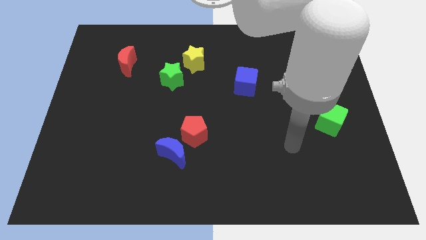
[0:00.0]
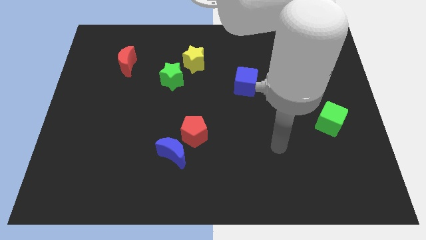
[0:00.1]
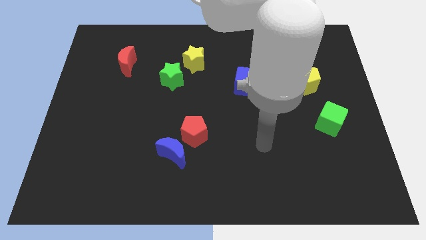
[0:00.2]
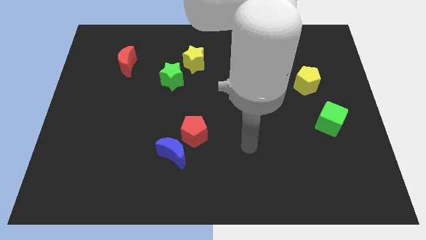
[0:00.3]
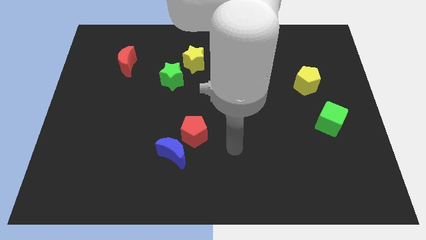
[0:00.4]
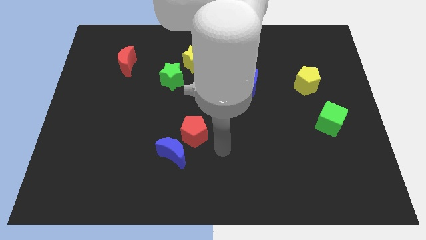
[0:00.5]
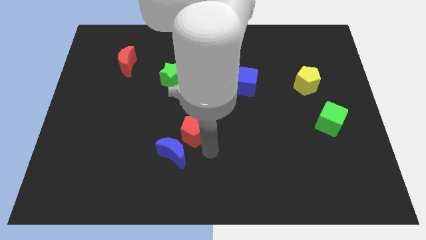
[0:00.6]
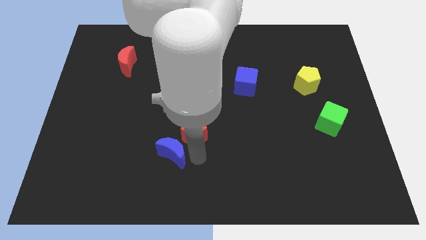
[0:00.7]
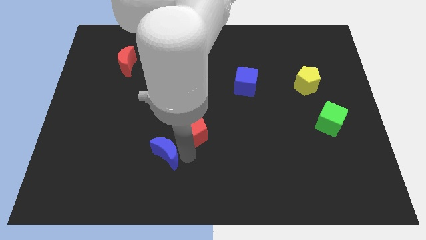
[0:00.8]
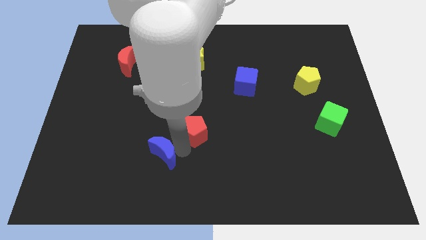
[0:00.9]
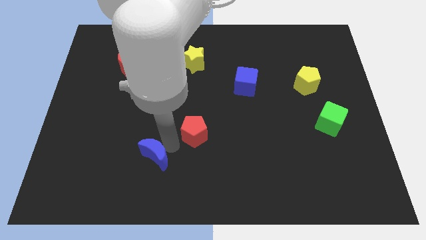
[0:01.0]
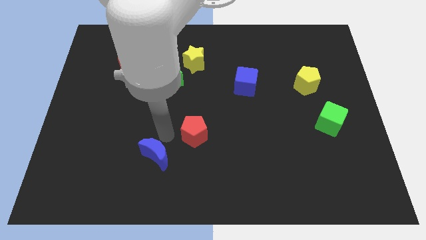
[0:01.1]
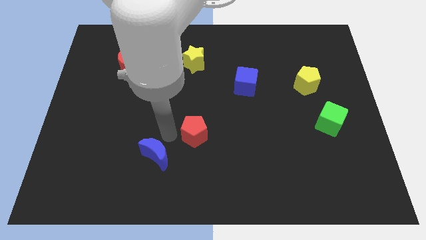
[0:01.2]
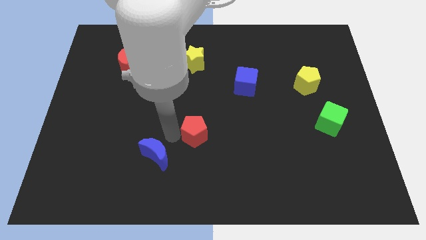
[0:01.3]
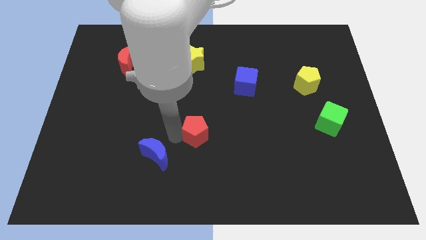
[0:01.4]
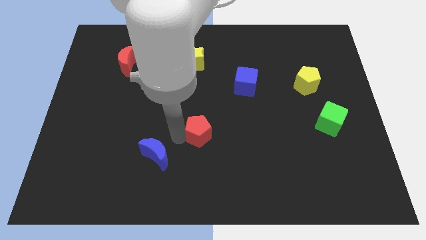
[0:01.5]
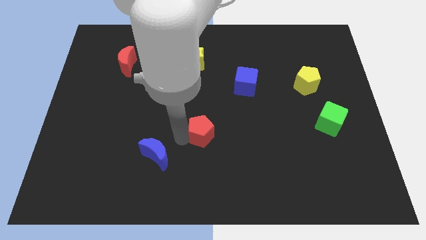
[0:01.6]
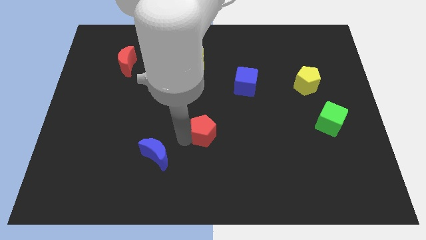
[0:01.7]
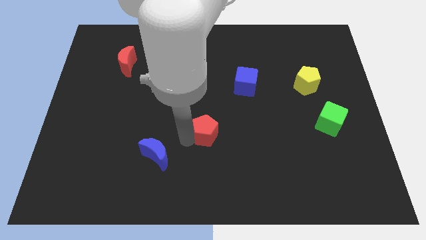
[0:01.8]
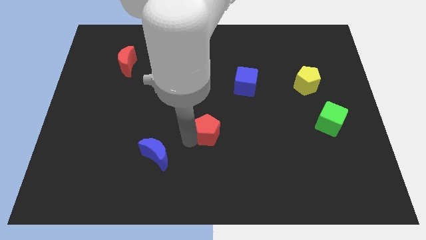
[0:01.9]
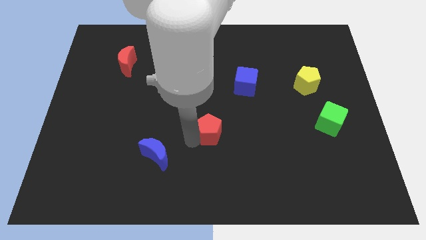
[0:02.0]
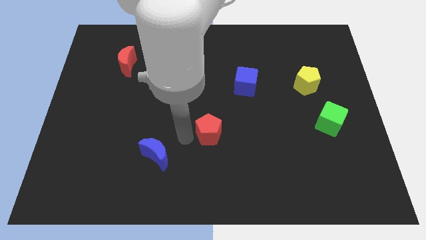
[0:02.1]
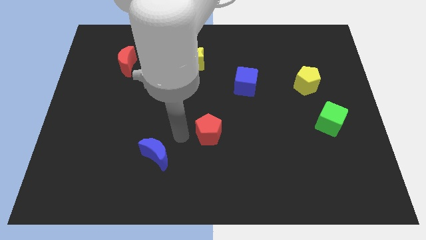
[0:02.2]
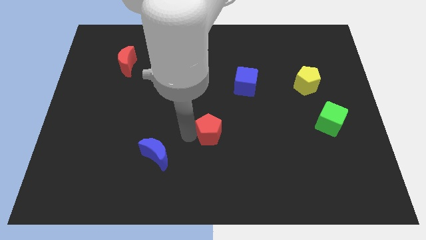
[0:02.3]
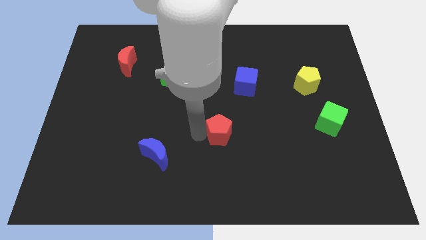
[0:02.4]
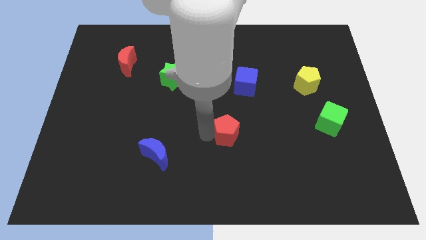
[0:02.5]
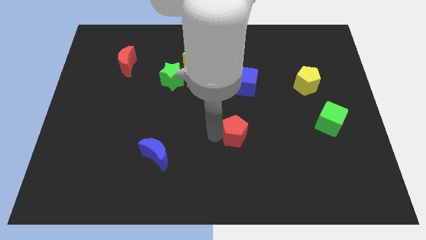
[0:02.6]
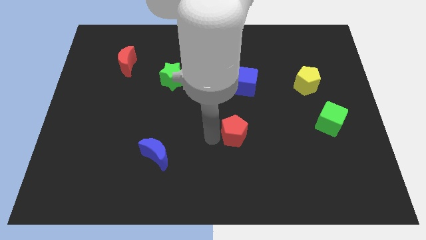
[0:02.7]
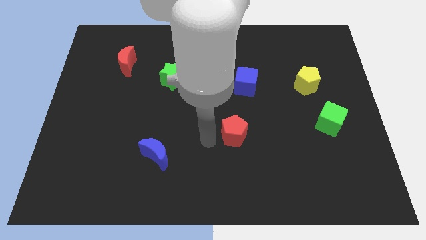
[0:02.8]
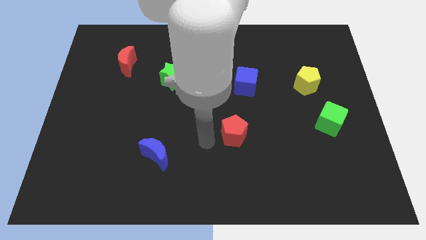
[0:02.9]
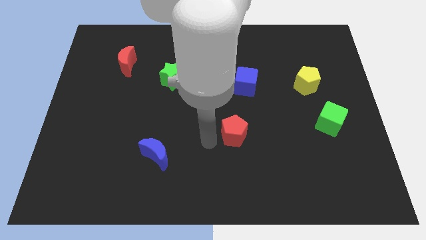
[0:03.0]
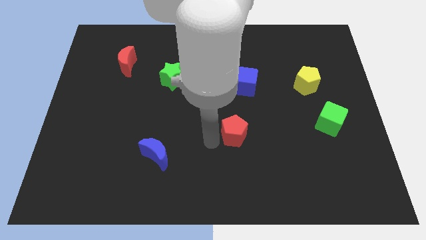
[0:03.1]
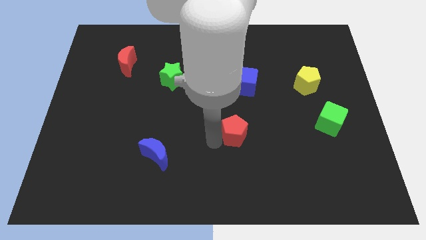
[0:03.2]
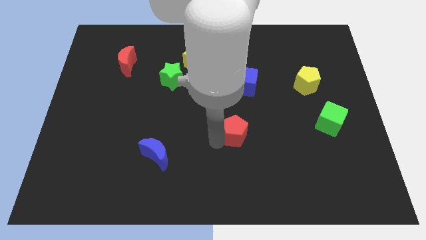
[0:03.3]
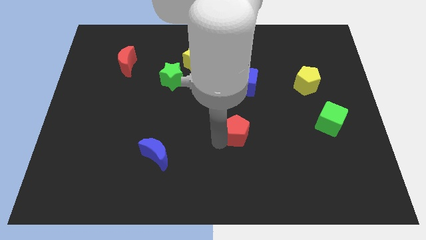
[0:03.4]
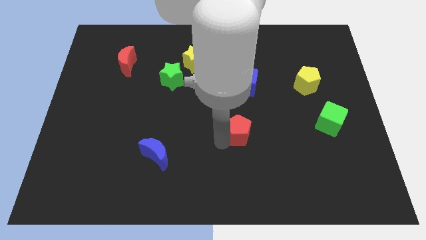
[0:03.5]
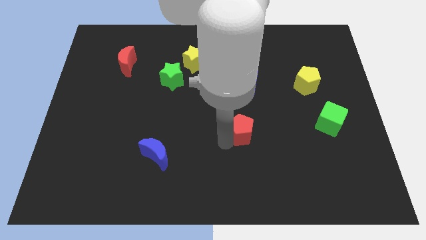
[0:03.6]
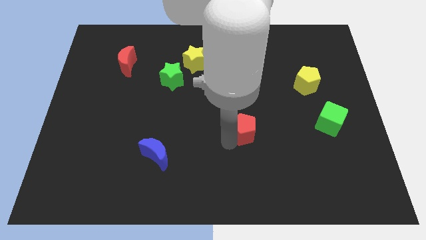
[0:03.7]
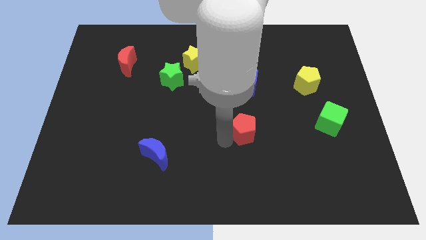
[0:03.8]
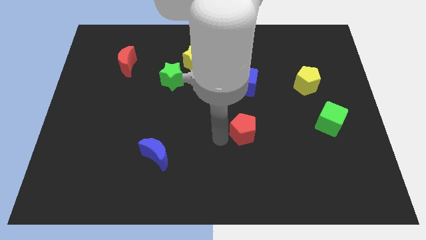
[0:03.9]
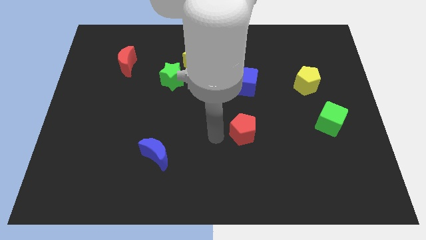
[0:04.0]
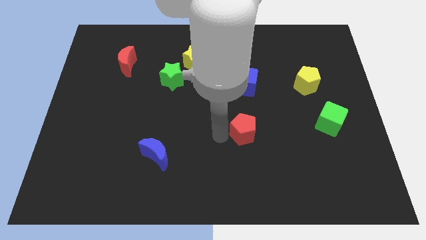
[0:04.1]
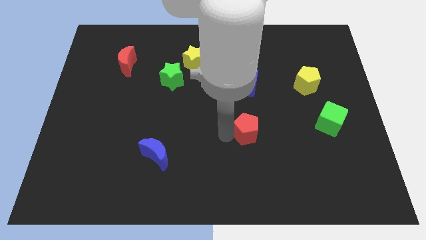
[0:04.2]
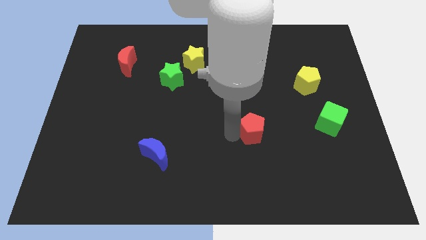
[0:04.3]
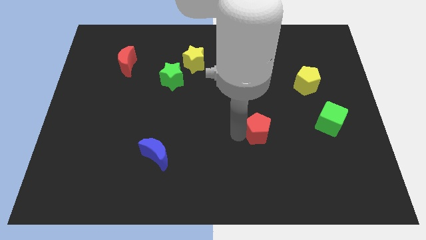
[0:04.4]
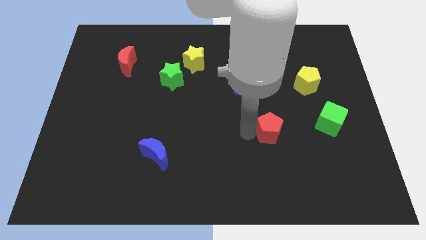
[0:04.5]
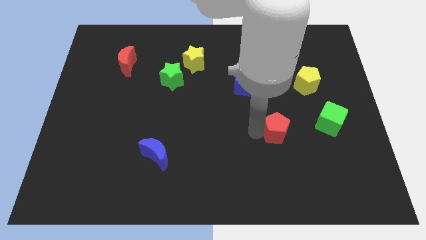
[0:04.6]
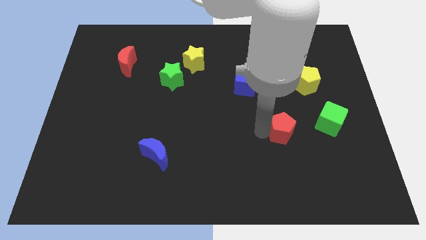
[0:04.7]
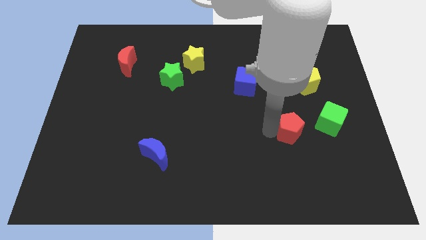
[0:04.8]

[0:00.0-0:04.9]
slide the red pentagon diagonally down and to the left of the green cube

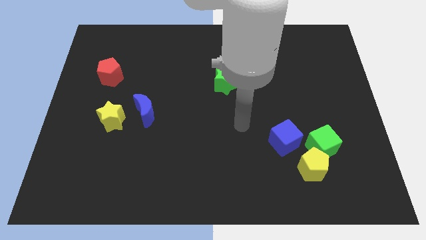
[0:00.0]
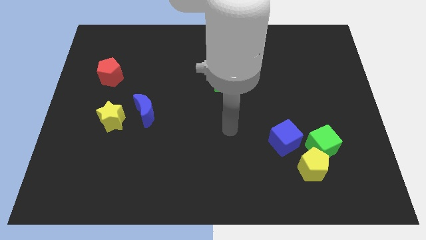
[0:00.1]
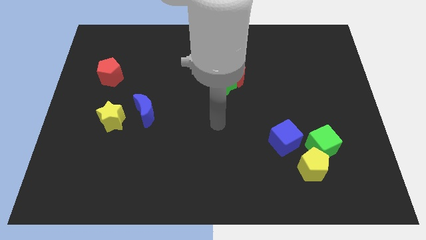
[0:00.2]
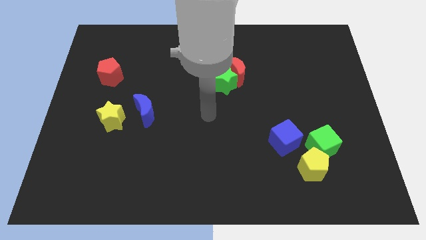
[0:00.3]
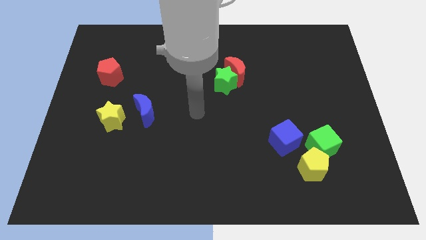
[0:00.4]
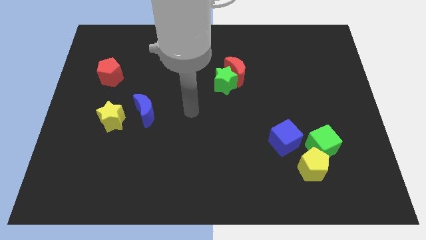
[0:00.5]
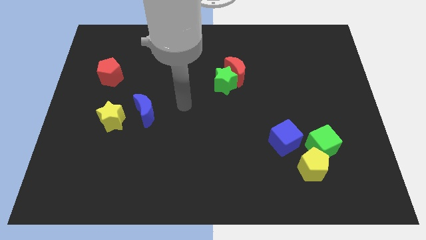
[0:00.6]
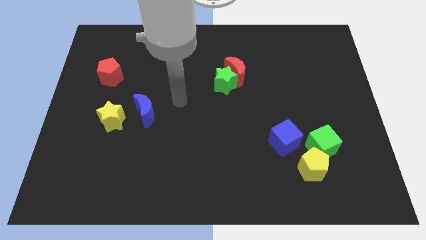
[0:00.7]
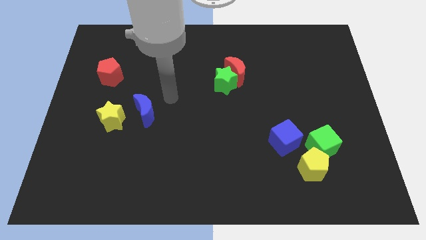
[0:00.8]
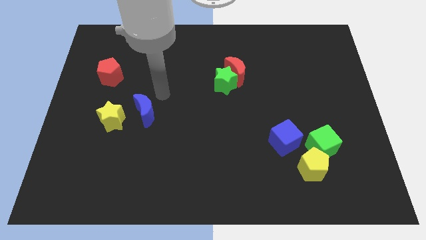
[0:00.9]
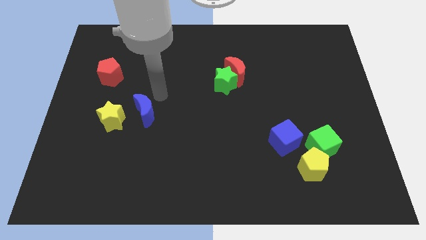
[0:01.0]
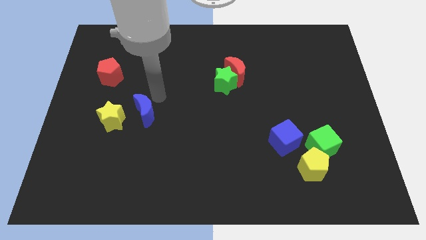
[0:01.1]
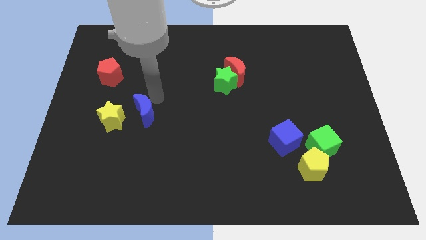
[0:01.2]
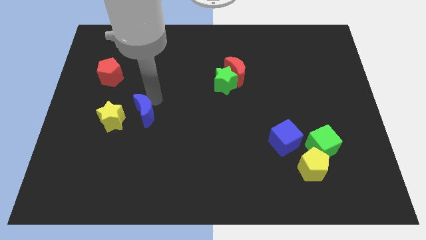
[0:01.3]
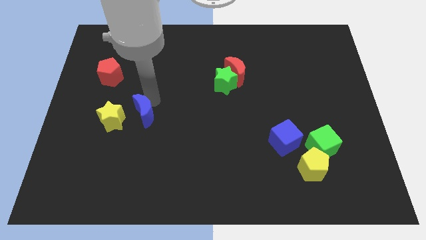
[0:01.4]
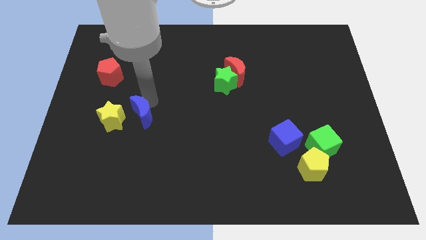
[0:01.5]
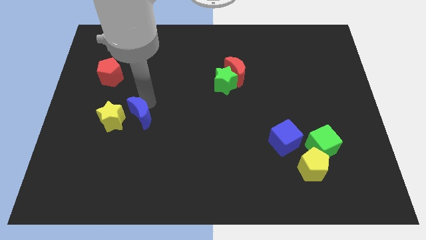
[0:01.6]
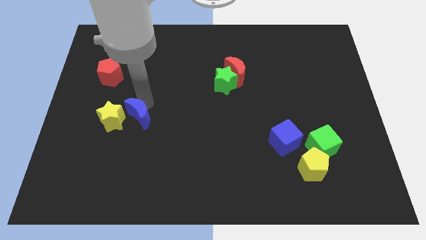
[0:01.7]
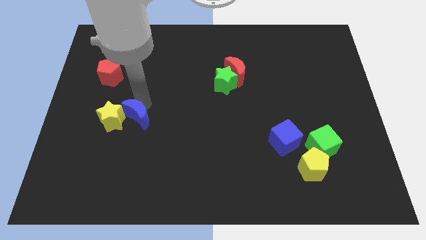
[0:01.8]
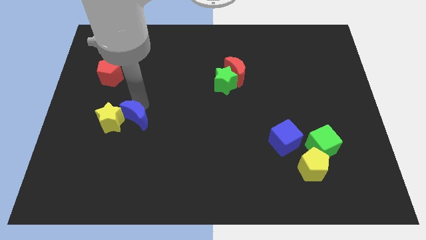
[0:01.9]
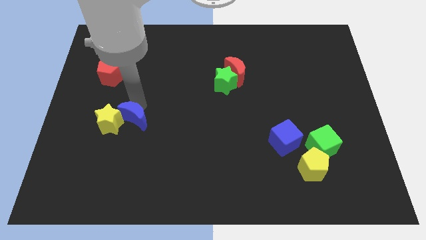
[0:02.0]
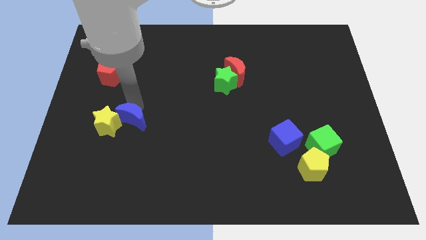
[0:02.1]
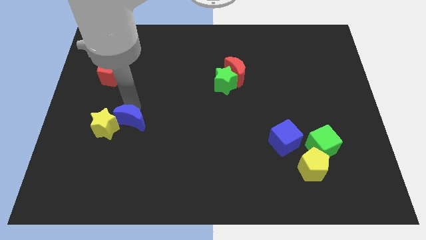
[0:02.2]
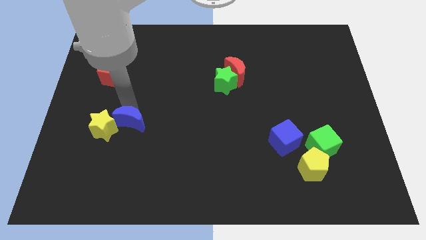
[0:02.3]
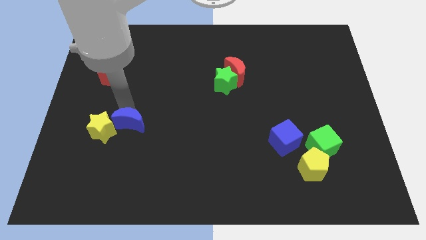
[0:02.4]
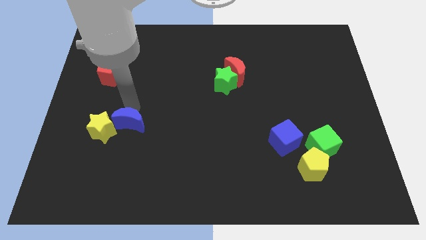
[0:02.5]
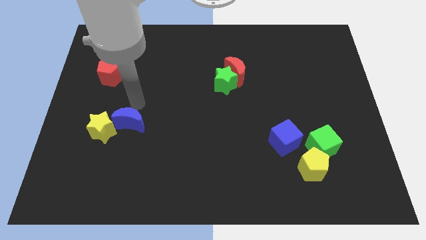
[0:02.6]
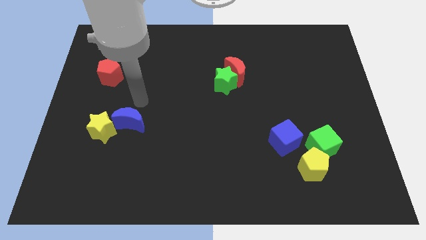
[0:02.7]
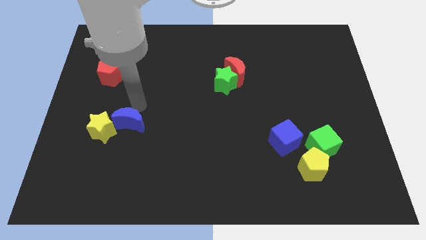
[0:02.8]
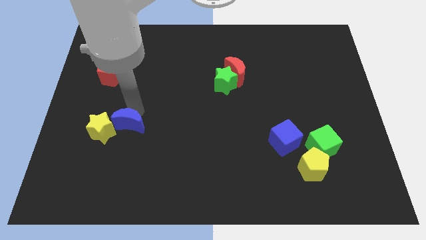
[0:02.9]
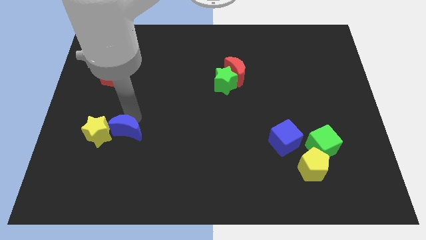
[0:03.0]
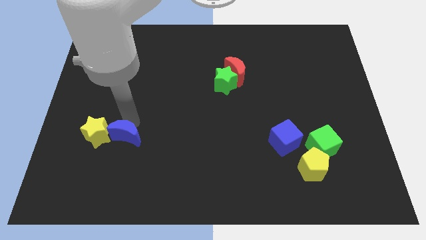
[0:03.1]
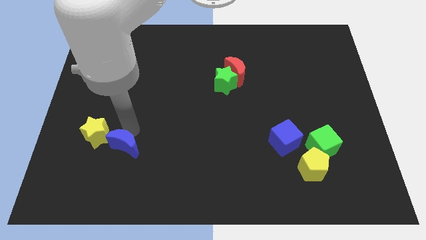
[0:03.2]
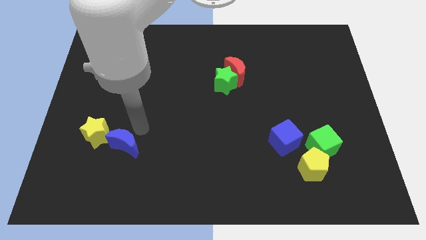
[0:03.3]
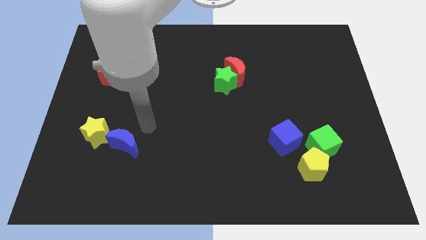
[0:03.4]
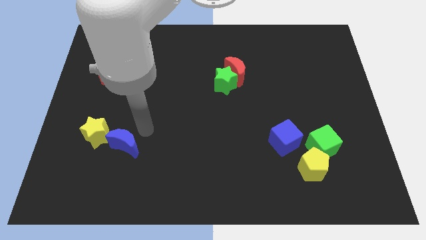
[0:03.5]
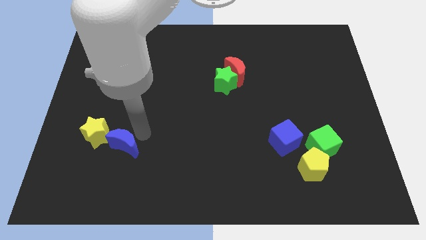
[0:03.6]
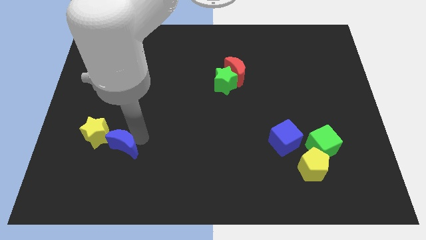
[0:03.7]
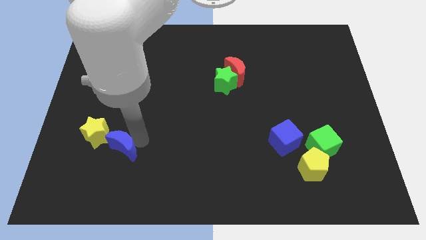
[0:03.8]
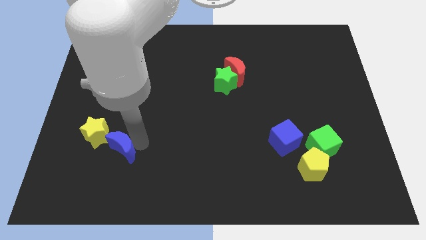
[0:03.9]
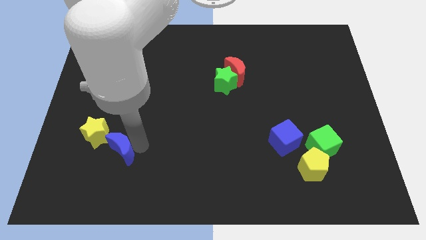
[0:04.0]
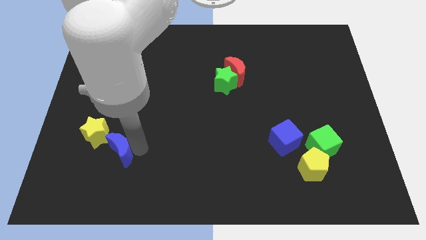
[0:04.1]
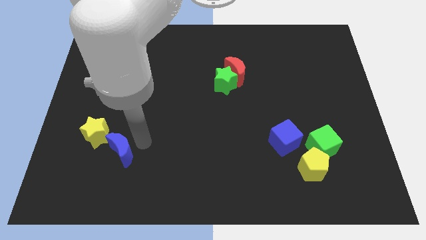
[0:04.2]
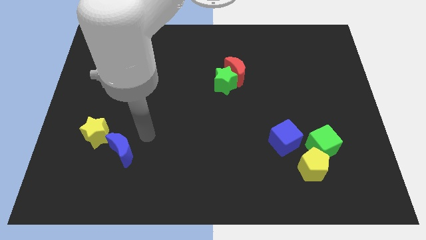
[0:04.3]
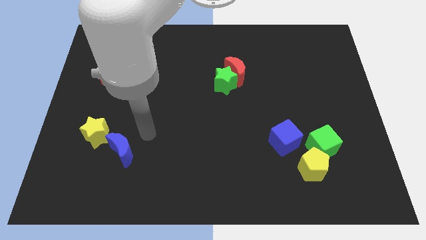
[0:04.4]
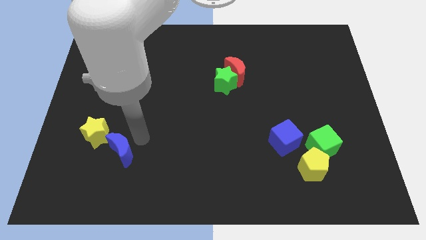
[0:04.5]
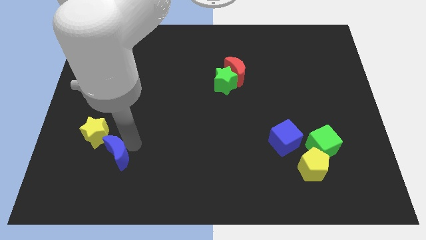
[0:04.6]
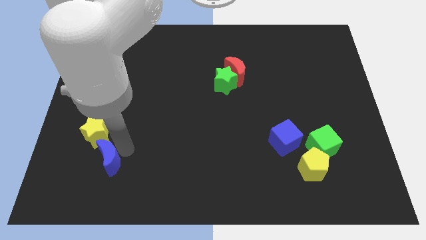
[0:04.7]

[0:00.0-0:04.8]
slide the blue moon to the bottom of the yellow star
